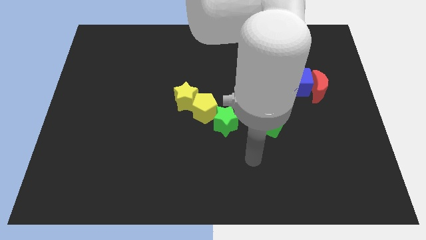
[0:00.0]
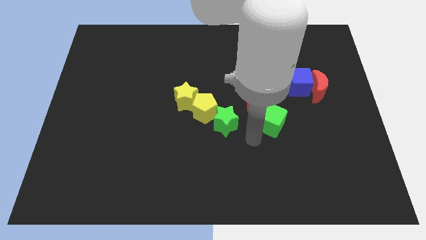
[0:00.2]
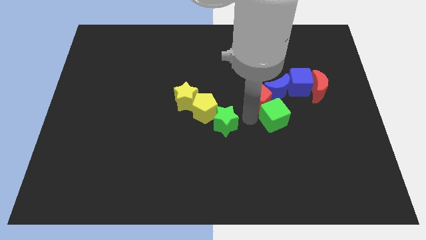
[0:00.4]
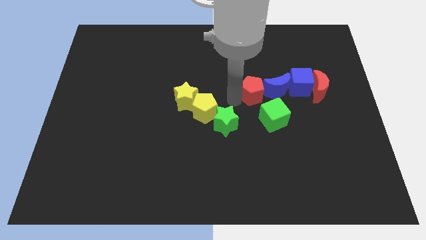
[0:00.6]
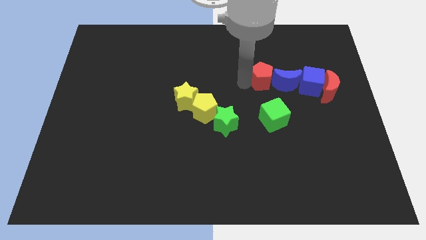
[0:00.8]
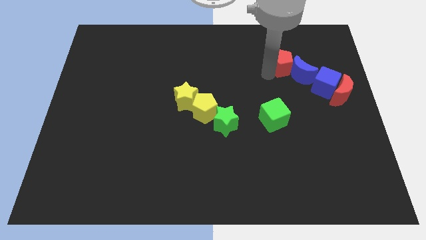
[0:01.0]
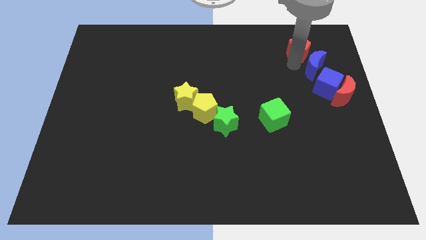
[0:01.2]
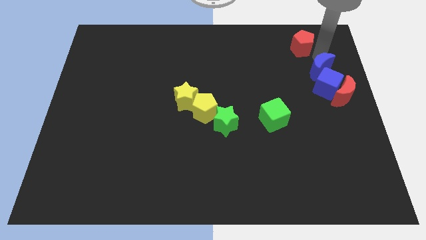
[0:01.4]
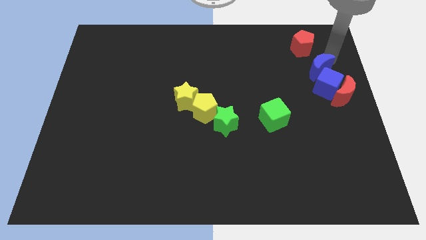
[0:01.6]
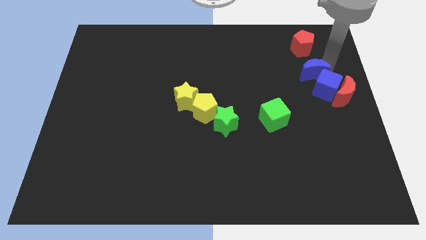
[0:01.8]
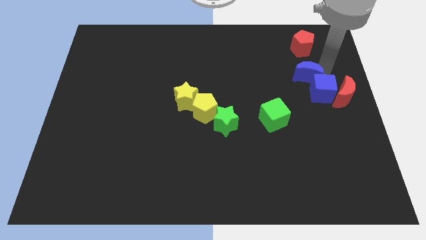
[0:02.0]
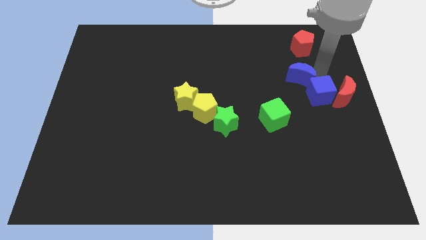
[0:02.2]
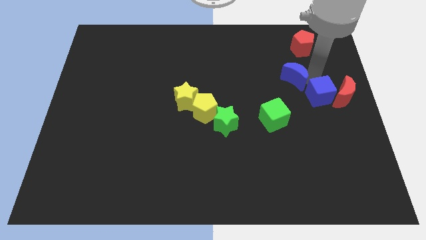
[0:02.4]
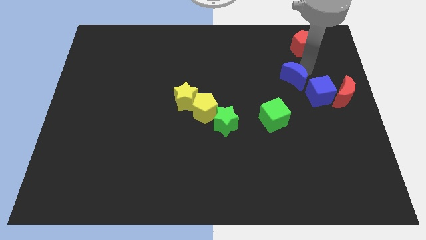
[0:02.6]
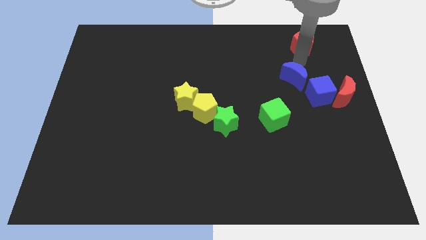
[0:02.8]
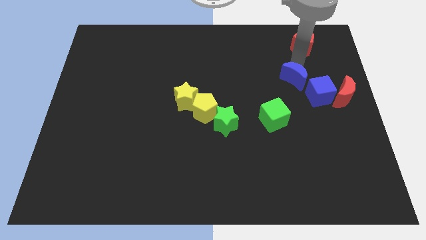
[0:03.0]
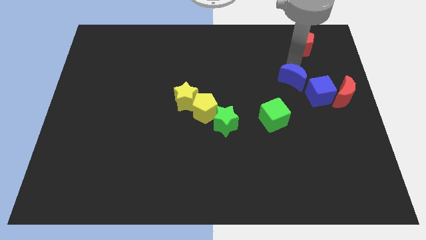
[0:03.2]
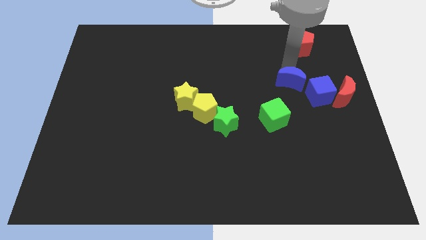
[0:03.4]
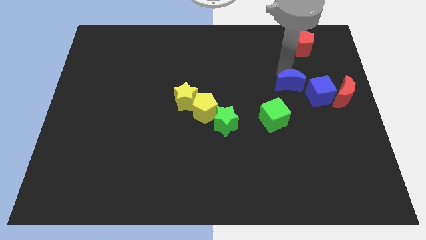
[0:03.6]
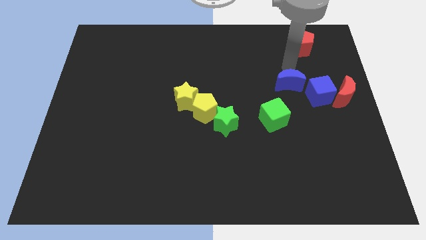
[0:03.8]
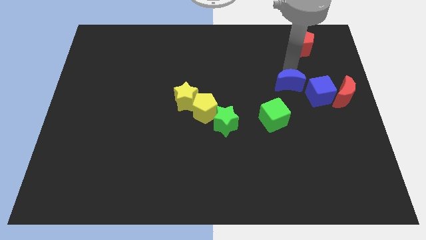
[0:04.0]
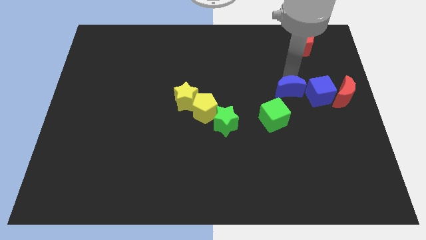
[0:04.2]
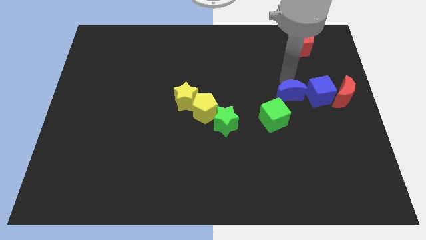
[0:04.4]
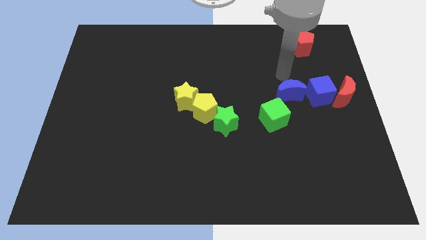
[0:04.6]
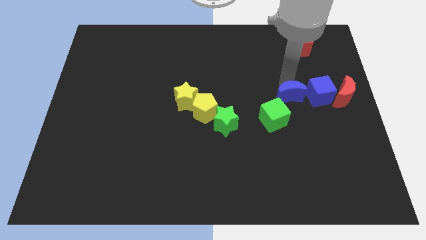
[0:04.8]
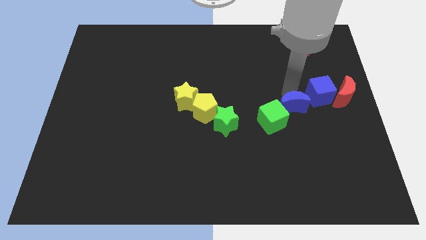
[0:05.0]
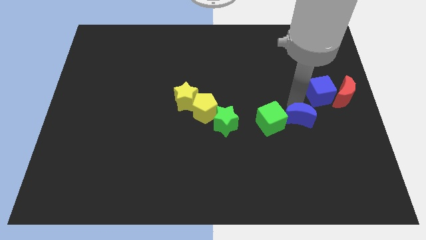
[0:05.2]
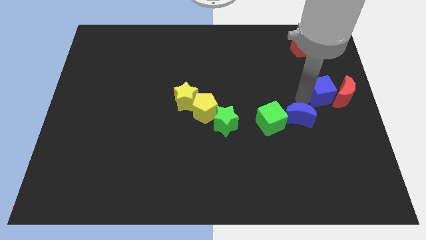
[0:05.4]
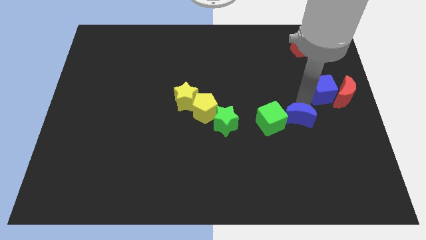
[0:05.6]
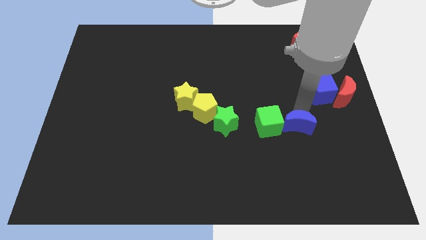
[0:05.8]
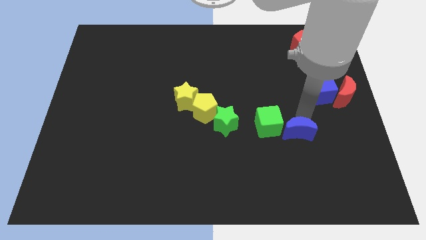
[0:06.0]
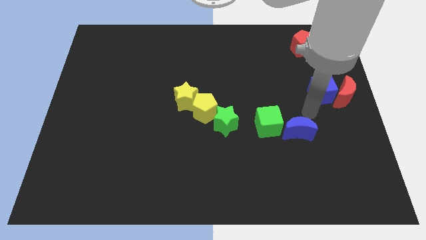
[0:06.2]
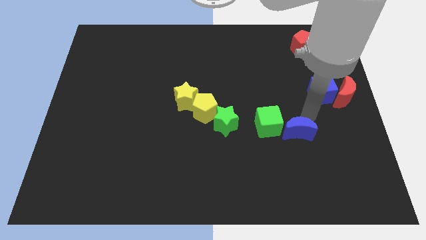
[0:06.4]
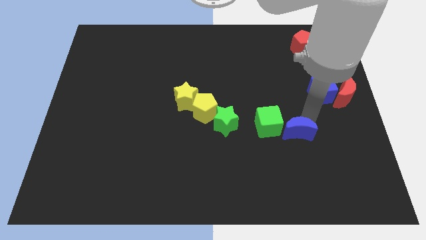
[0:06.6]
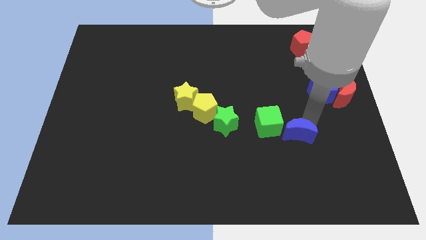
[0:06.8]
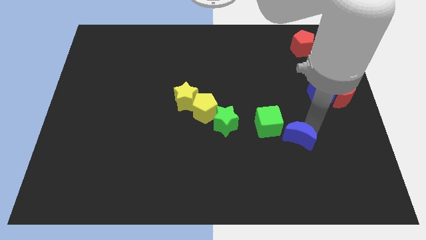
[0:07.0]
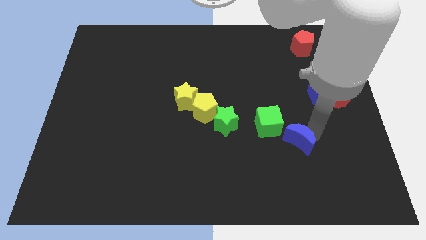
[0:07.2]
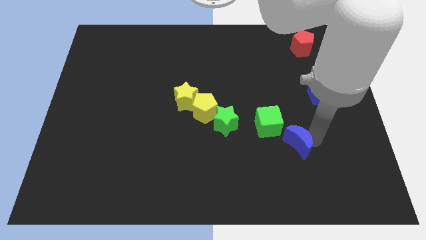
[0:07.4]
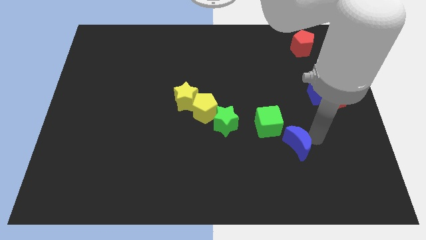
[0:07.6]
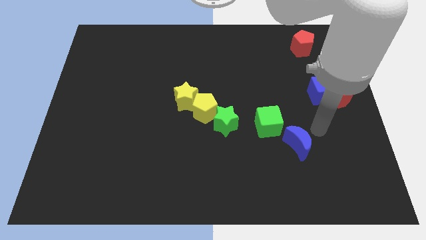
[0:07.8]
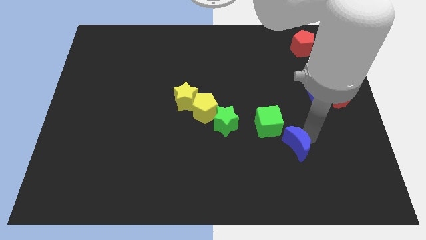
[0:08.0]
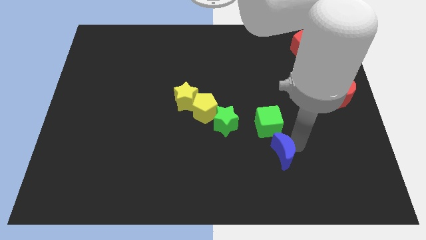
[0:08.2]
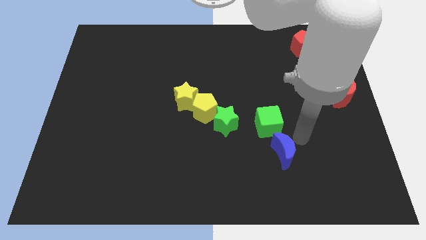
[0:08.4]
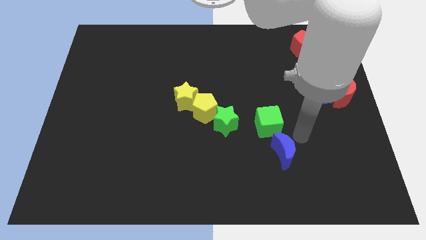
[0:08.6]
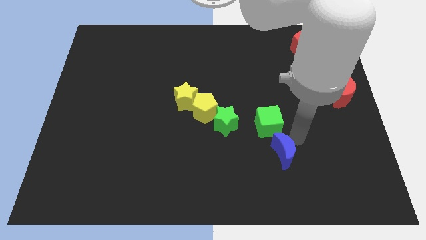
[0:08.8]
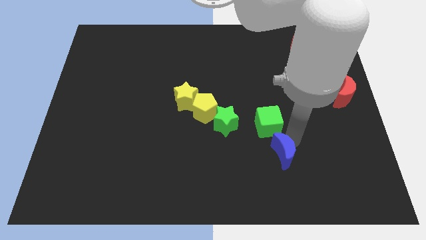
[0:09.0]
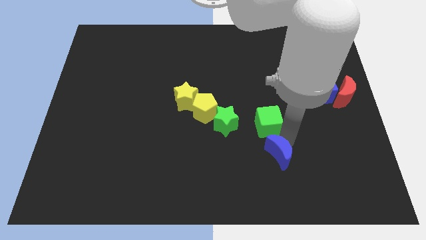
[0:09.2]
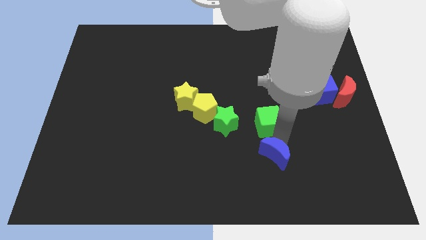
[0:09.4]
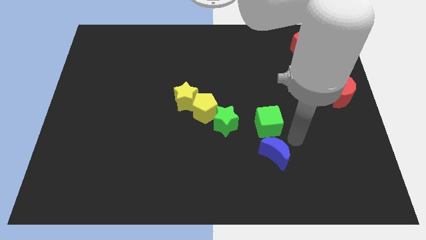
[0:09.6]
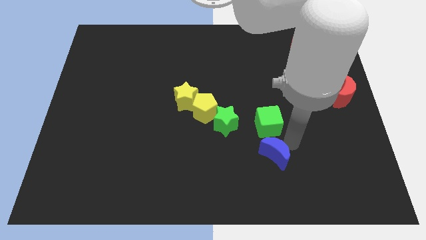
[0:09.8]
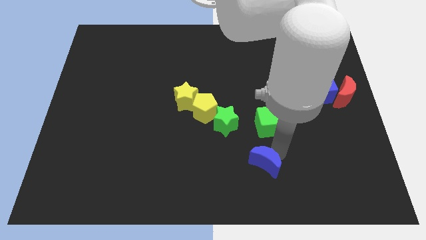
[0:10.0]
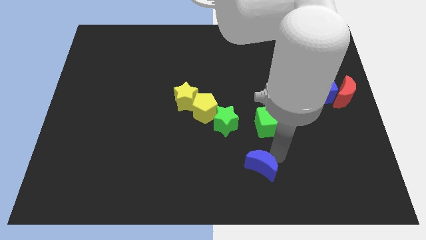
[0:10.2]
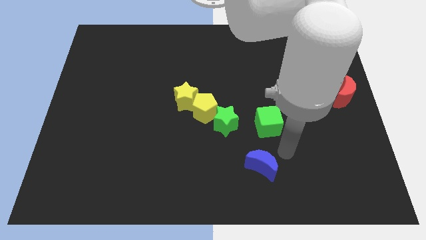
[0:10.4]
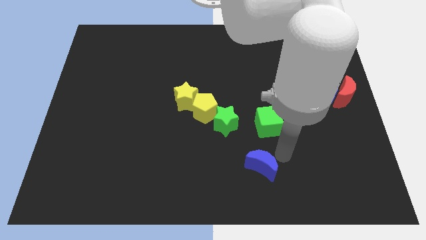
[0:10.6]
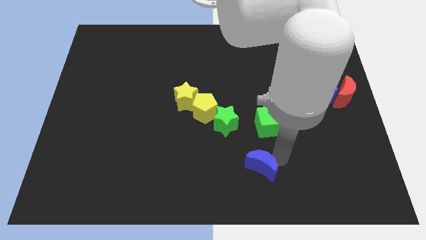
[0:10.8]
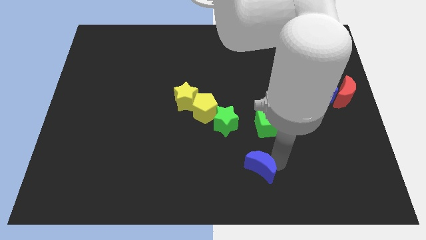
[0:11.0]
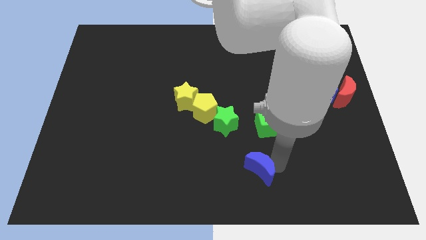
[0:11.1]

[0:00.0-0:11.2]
put the blue moon to the bottom side

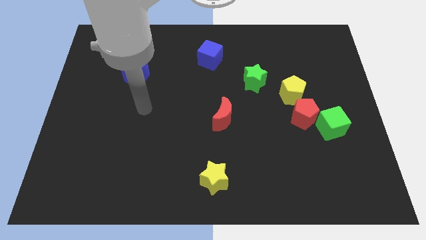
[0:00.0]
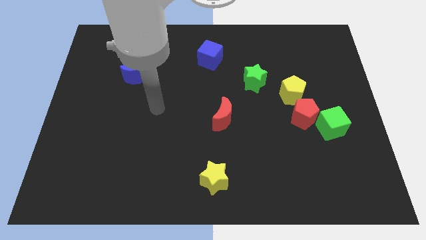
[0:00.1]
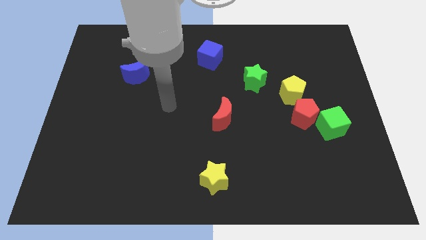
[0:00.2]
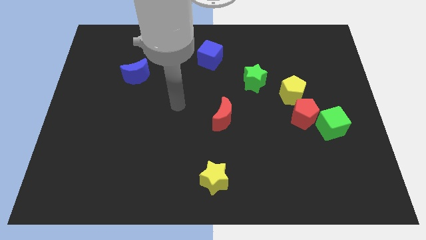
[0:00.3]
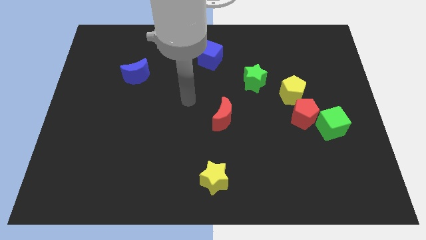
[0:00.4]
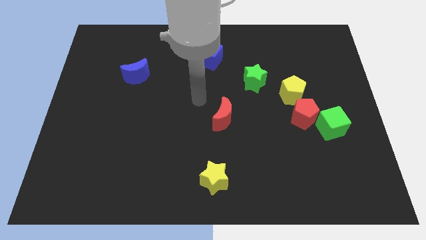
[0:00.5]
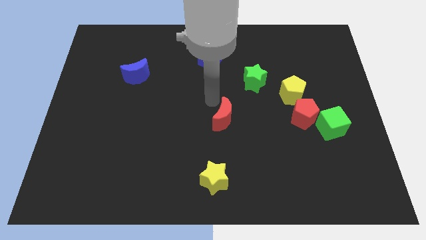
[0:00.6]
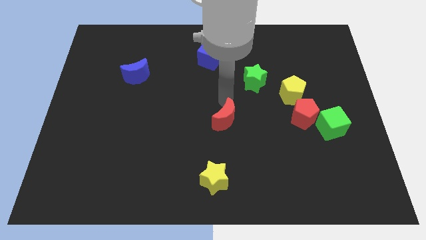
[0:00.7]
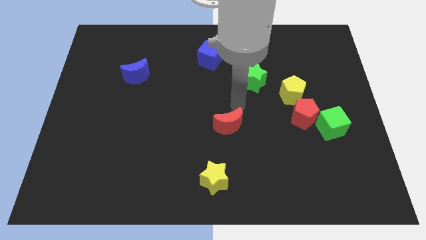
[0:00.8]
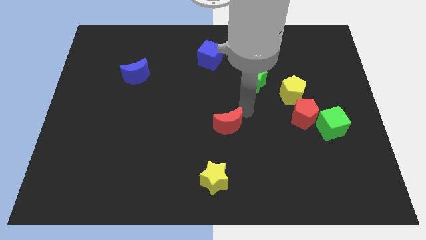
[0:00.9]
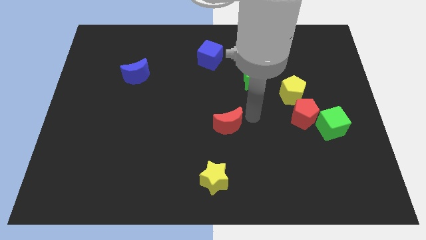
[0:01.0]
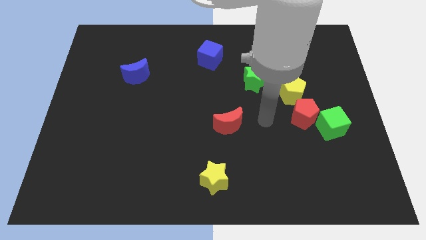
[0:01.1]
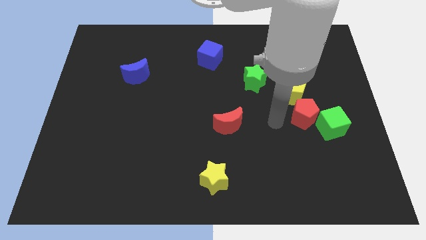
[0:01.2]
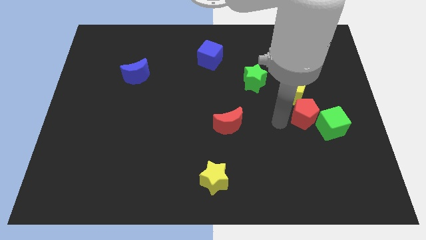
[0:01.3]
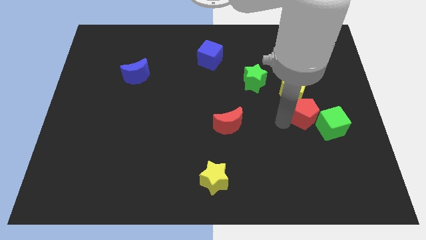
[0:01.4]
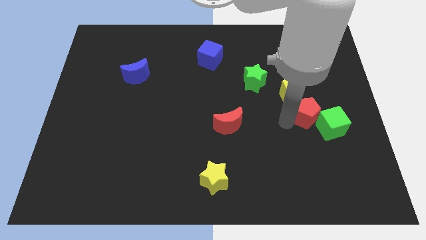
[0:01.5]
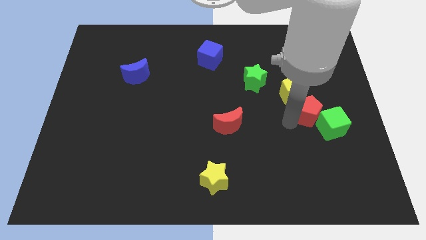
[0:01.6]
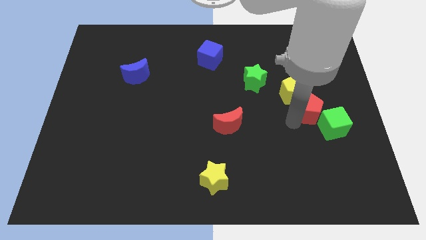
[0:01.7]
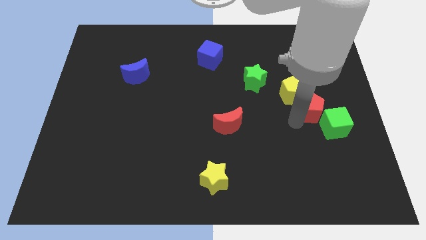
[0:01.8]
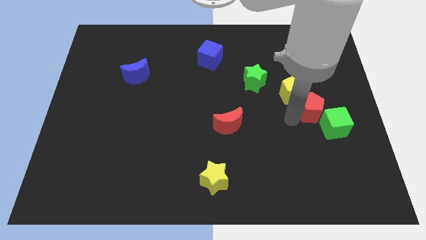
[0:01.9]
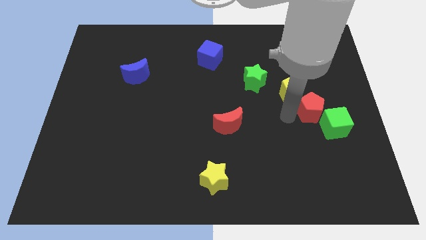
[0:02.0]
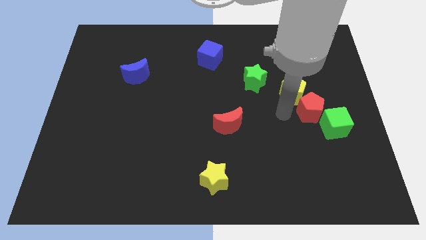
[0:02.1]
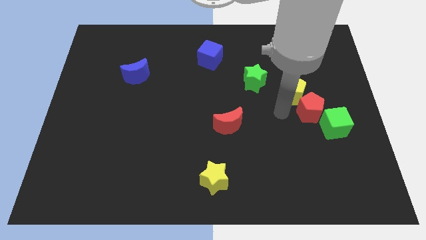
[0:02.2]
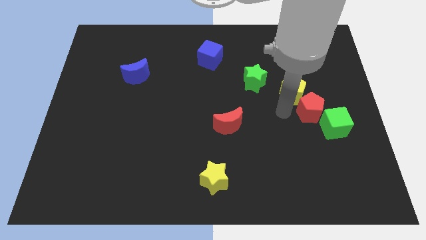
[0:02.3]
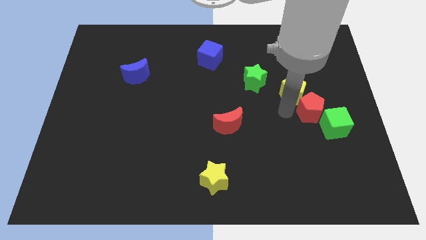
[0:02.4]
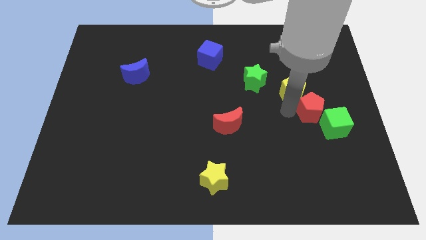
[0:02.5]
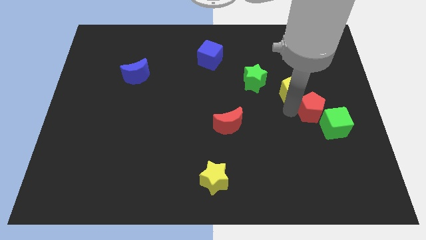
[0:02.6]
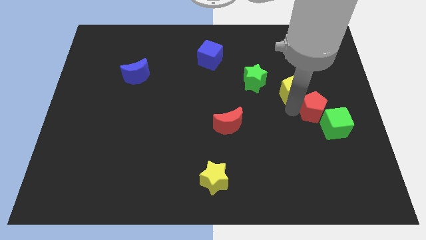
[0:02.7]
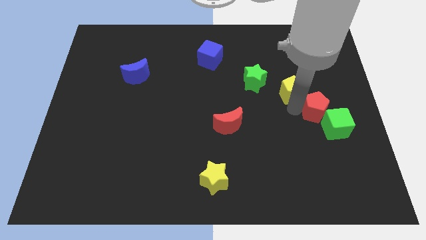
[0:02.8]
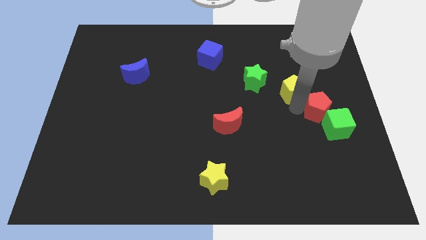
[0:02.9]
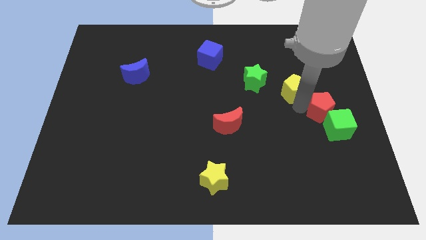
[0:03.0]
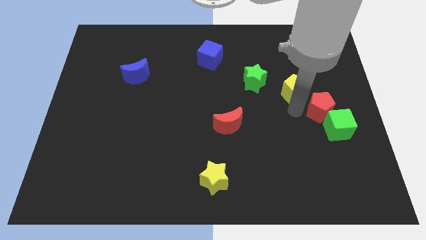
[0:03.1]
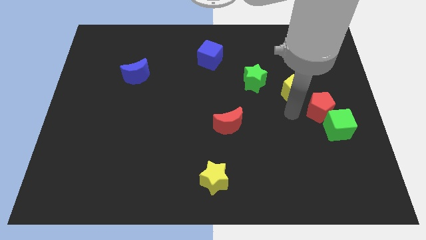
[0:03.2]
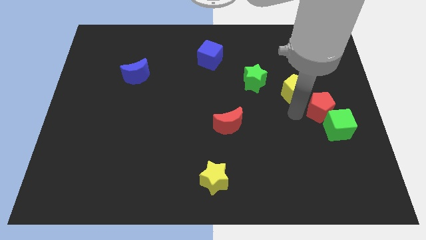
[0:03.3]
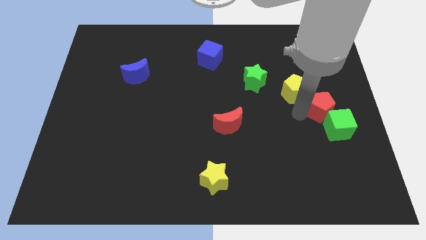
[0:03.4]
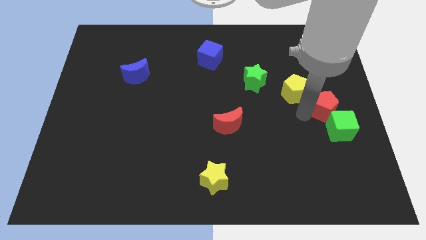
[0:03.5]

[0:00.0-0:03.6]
move the red pentagon to the right side
